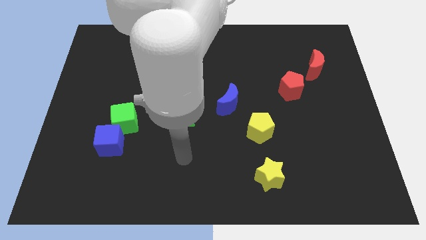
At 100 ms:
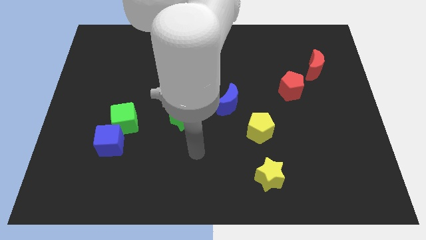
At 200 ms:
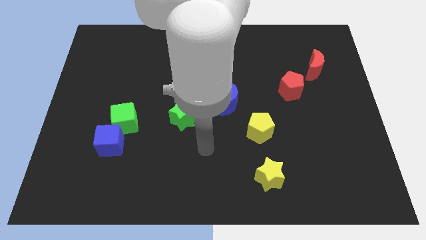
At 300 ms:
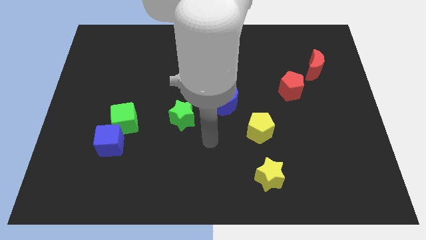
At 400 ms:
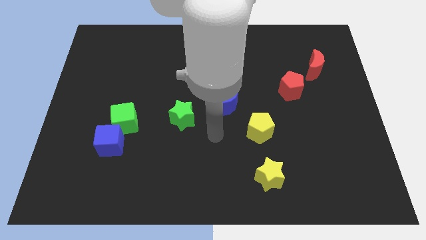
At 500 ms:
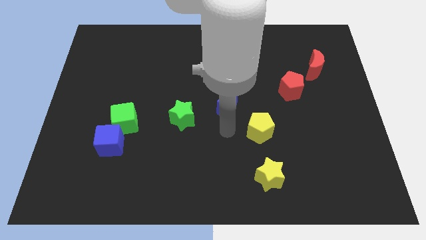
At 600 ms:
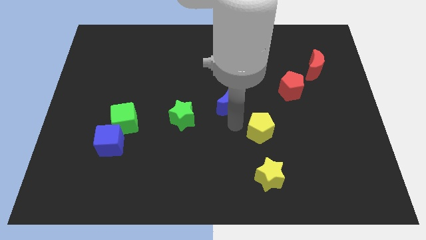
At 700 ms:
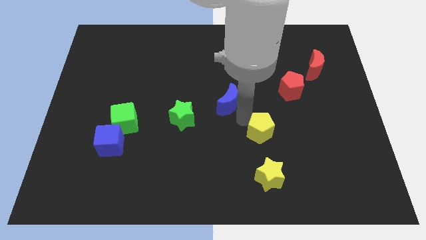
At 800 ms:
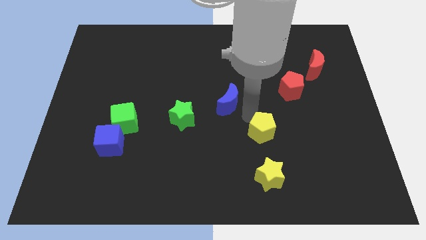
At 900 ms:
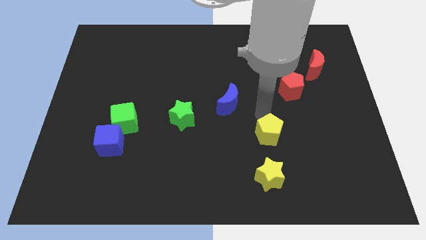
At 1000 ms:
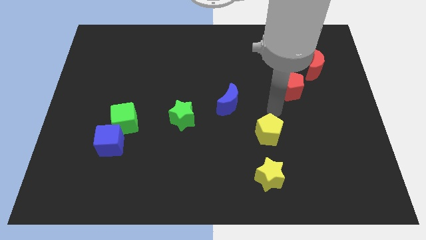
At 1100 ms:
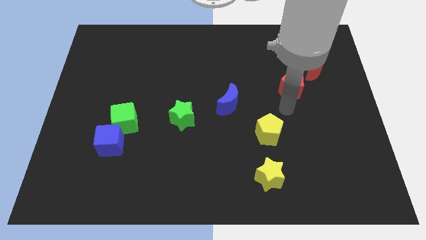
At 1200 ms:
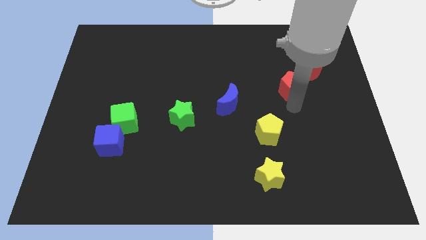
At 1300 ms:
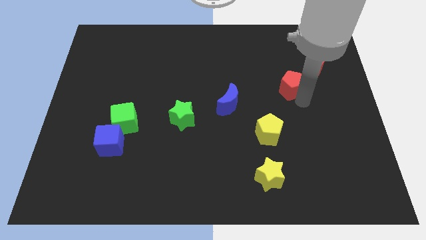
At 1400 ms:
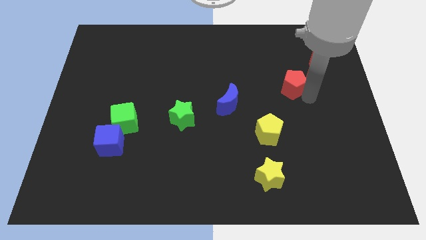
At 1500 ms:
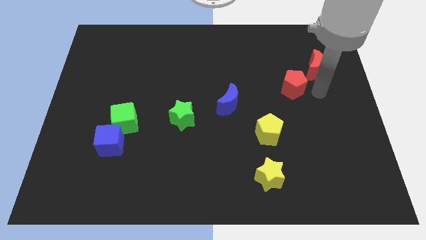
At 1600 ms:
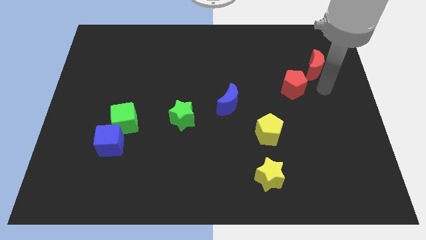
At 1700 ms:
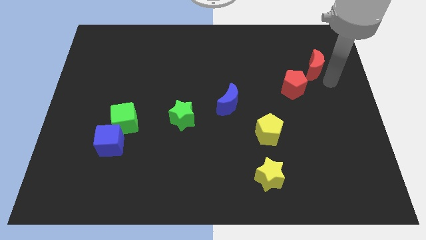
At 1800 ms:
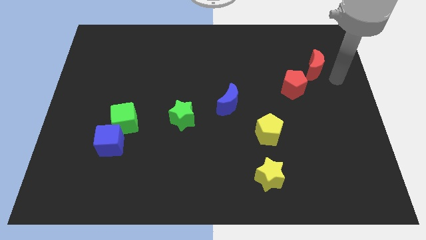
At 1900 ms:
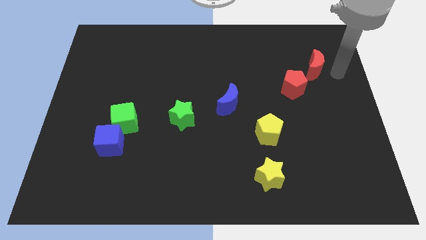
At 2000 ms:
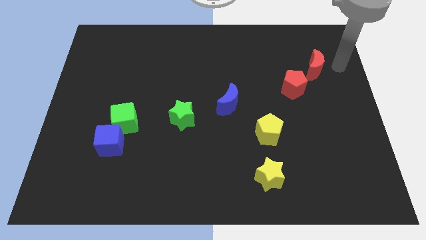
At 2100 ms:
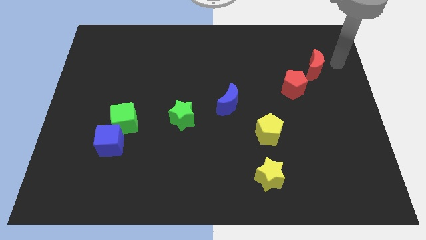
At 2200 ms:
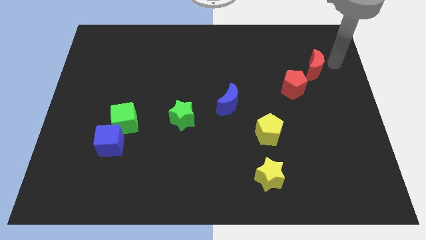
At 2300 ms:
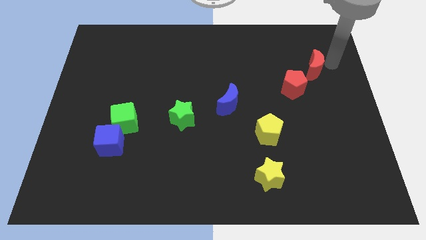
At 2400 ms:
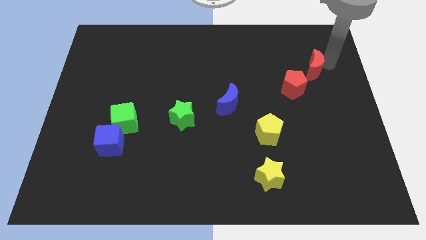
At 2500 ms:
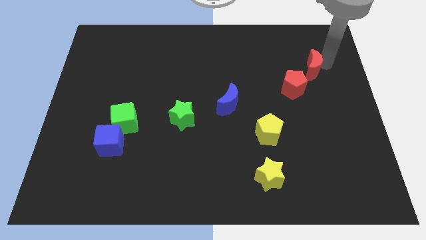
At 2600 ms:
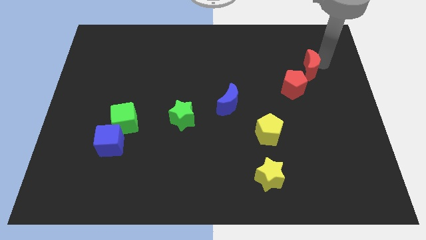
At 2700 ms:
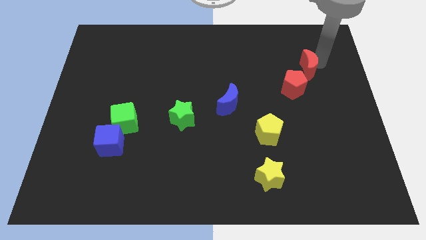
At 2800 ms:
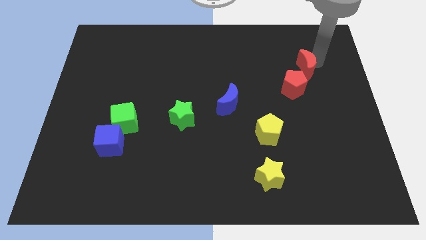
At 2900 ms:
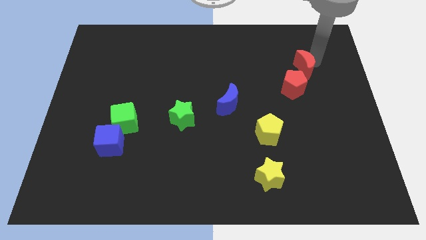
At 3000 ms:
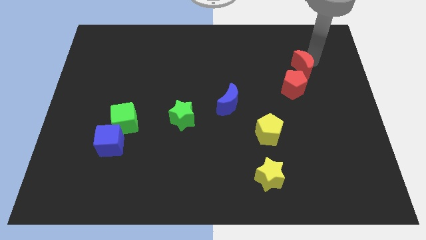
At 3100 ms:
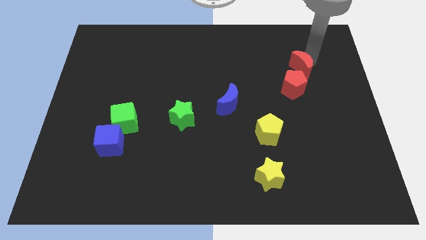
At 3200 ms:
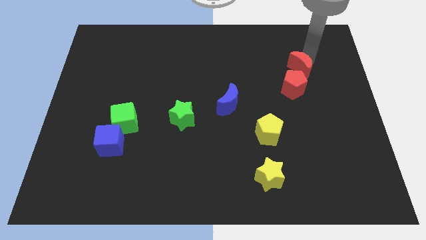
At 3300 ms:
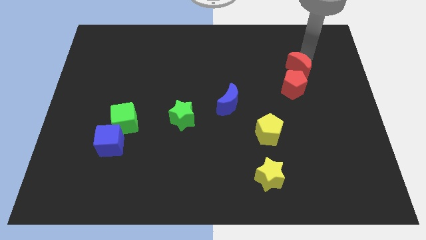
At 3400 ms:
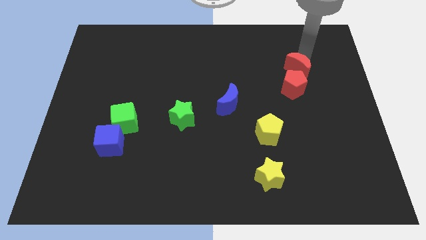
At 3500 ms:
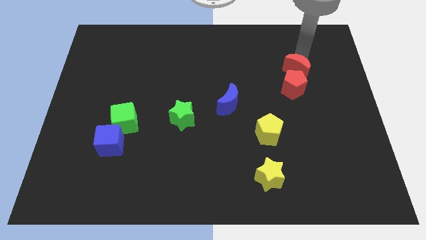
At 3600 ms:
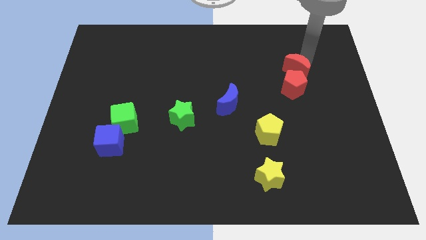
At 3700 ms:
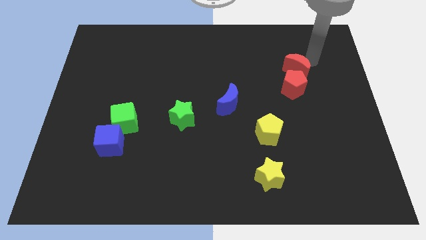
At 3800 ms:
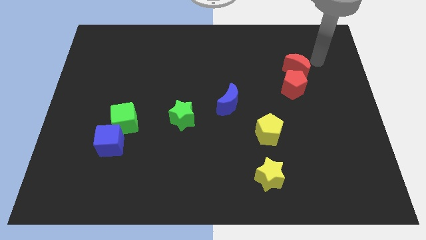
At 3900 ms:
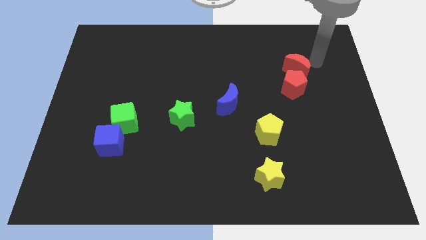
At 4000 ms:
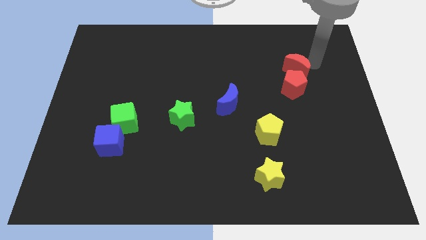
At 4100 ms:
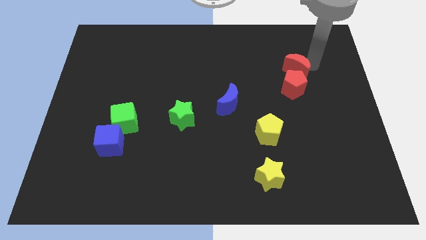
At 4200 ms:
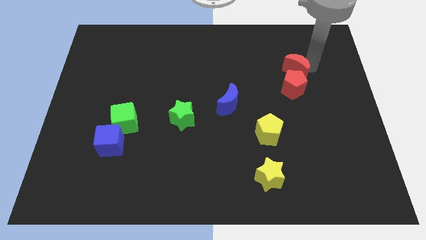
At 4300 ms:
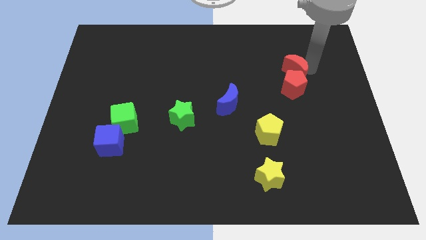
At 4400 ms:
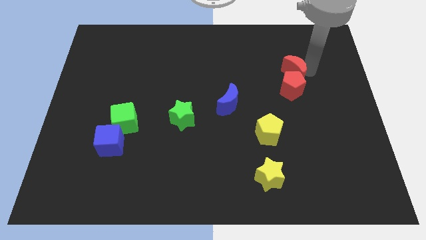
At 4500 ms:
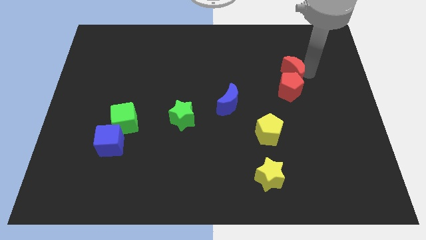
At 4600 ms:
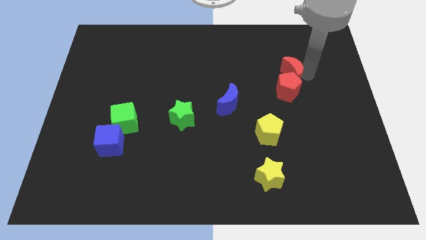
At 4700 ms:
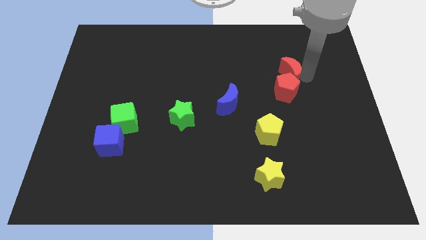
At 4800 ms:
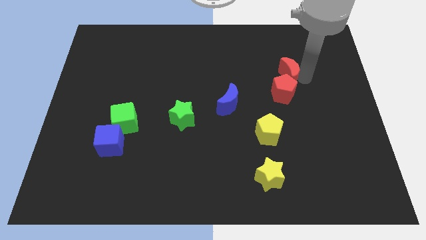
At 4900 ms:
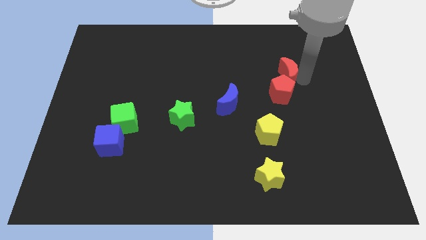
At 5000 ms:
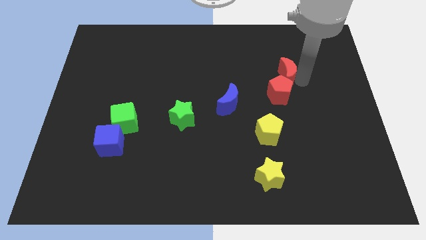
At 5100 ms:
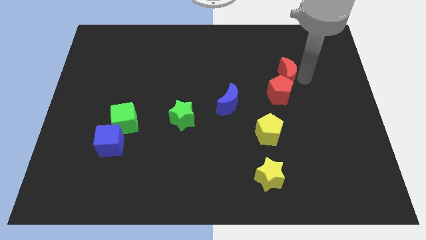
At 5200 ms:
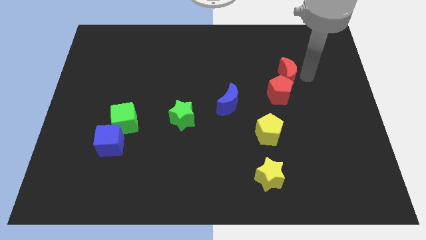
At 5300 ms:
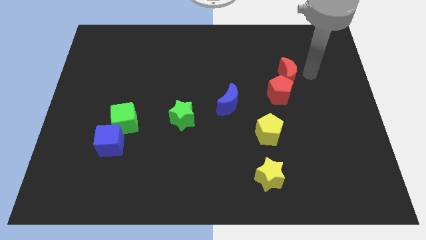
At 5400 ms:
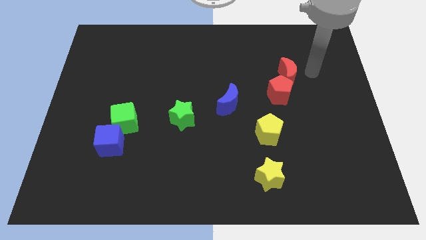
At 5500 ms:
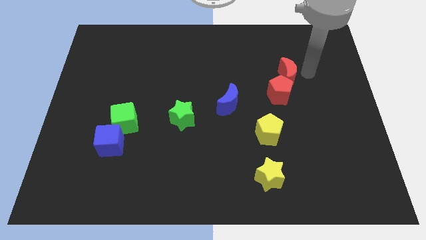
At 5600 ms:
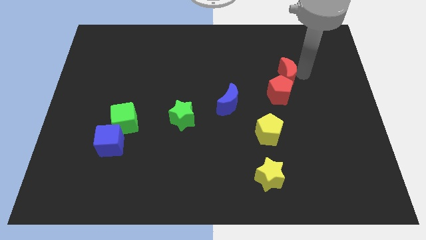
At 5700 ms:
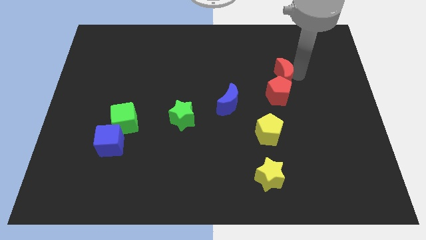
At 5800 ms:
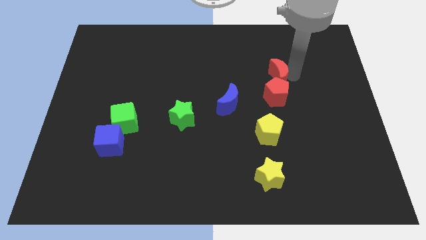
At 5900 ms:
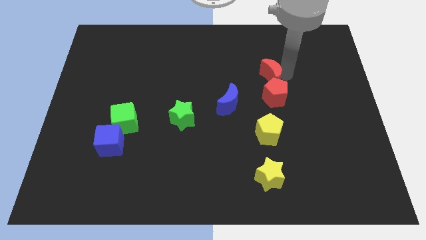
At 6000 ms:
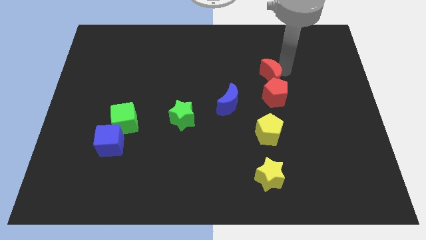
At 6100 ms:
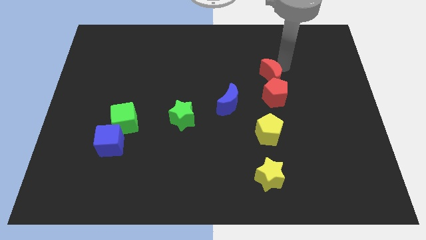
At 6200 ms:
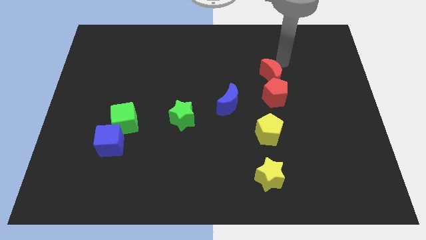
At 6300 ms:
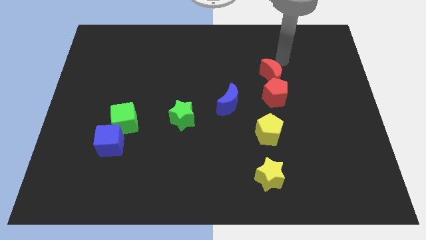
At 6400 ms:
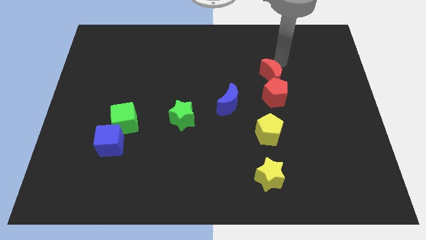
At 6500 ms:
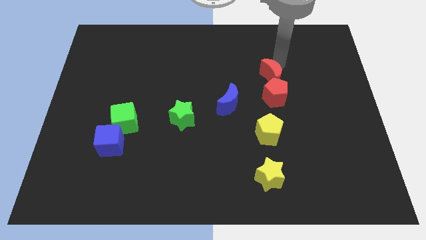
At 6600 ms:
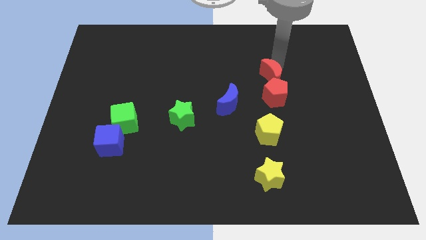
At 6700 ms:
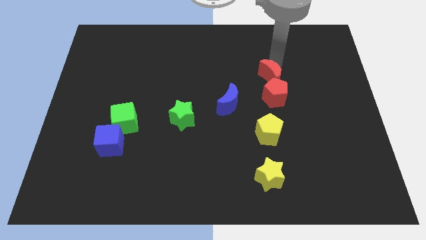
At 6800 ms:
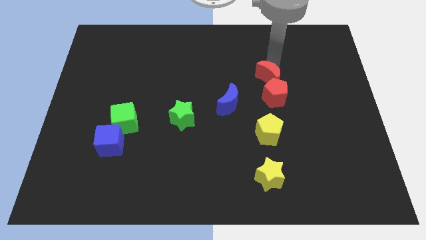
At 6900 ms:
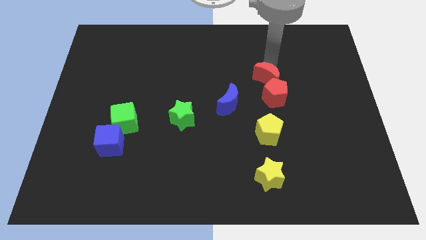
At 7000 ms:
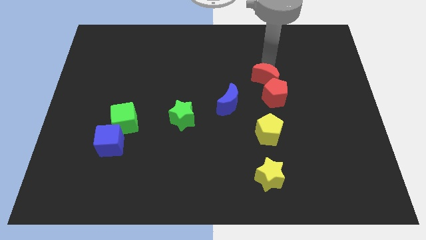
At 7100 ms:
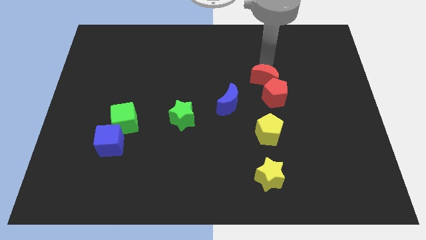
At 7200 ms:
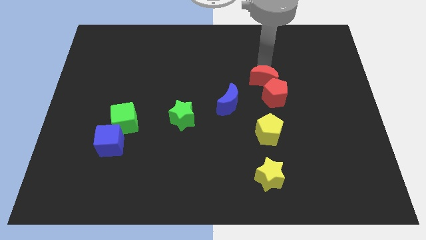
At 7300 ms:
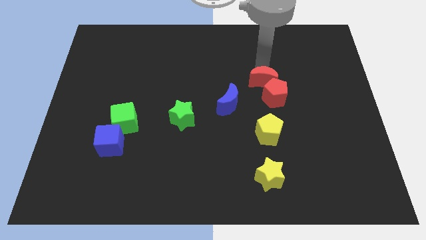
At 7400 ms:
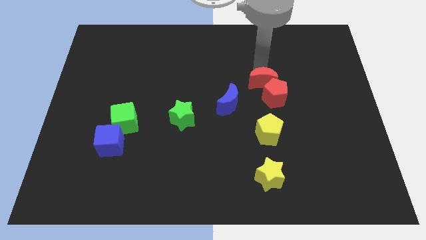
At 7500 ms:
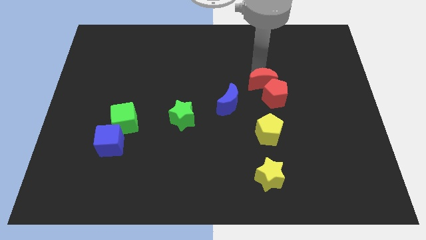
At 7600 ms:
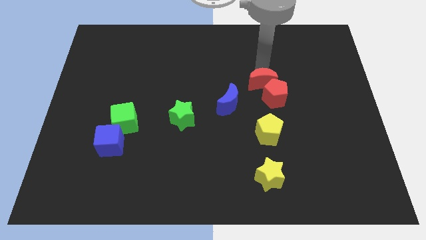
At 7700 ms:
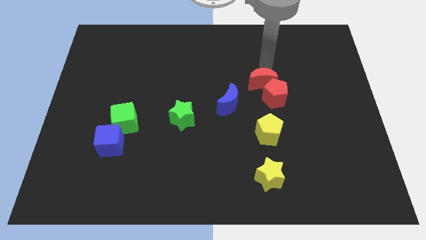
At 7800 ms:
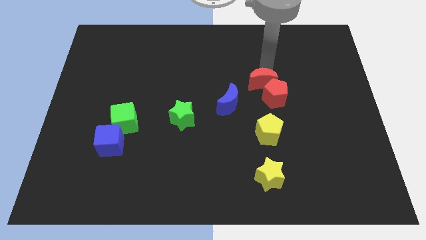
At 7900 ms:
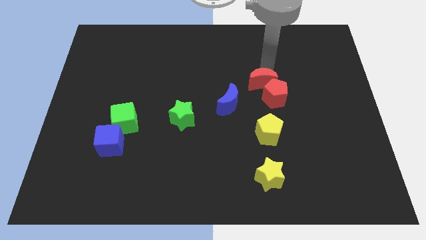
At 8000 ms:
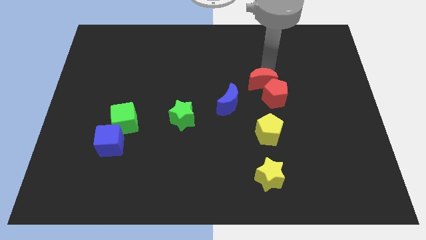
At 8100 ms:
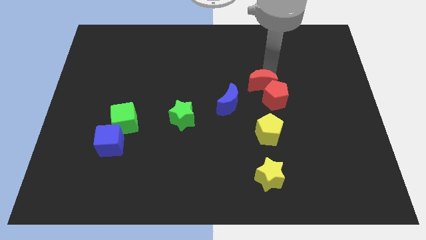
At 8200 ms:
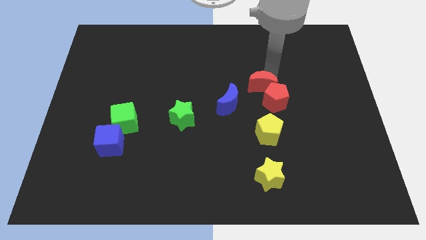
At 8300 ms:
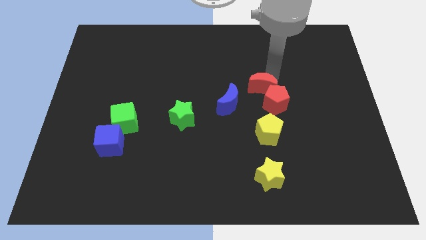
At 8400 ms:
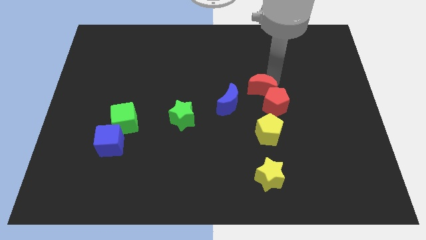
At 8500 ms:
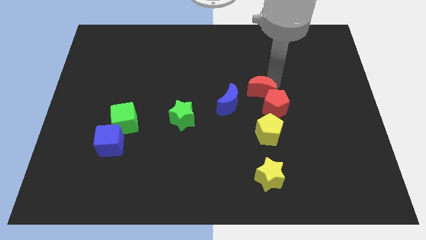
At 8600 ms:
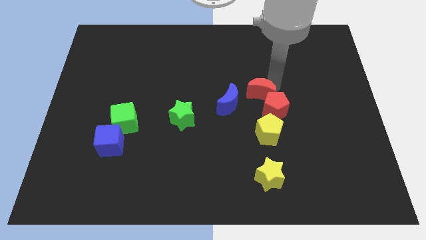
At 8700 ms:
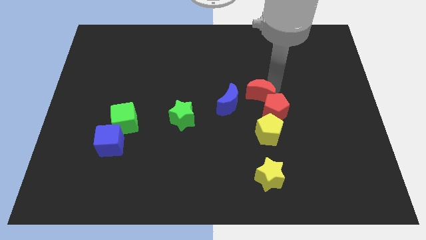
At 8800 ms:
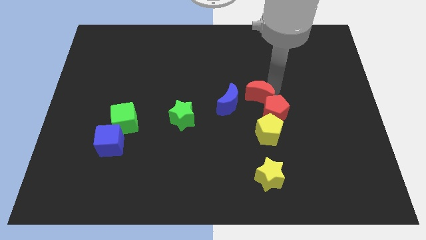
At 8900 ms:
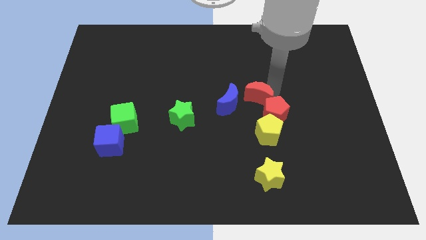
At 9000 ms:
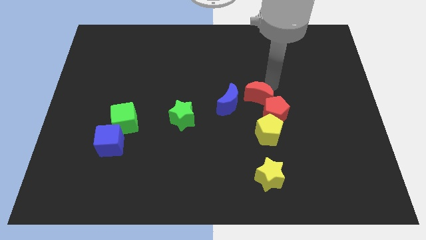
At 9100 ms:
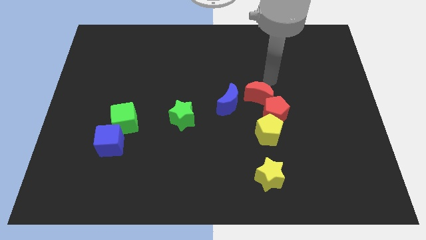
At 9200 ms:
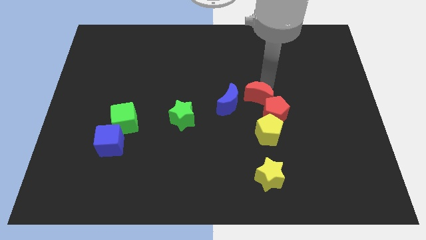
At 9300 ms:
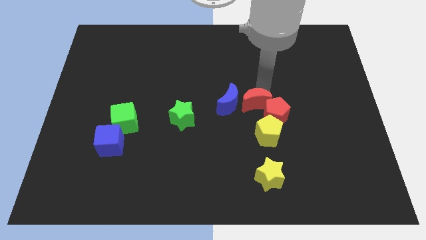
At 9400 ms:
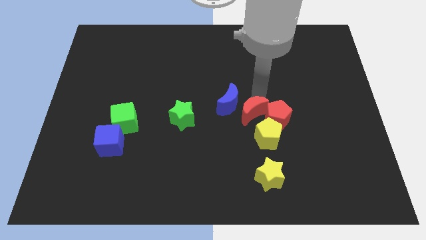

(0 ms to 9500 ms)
push the red moon downwards and then left
